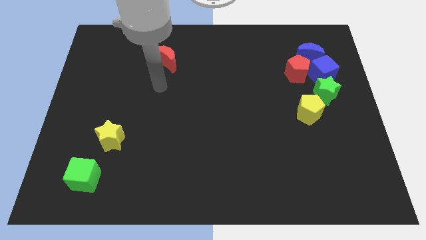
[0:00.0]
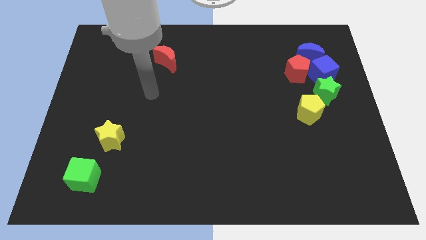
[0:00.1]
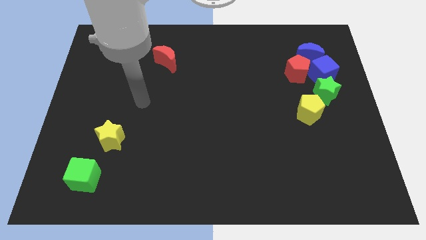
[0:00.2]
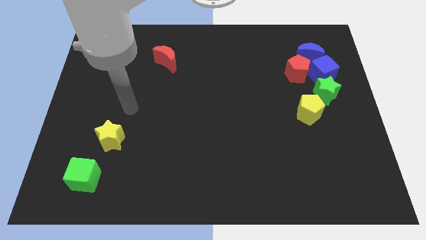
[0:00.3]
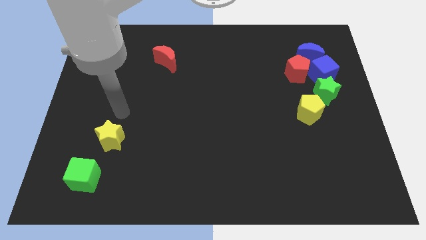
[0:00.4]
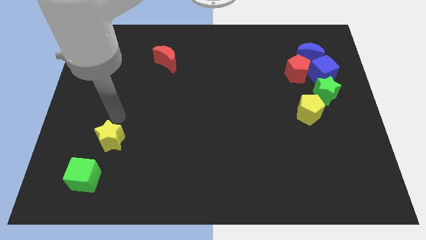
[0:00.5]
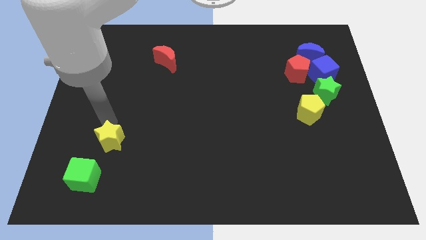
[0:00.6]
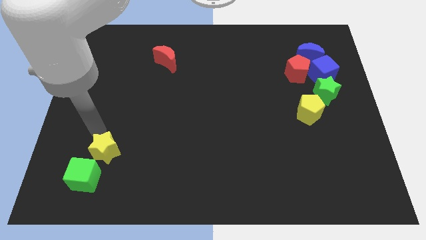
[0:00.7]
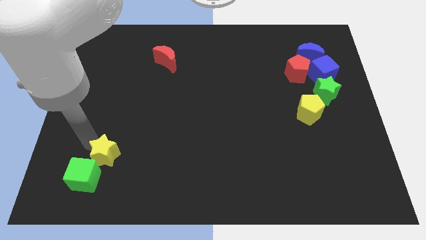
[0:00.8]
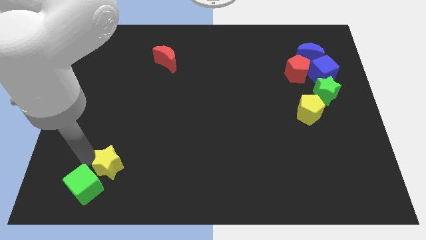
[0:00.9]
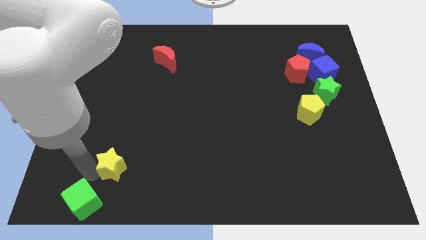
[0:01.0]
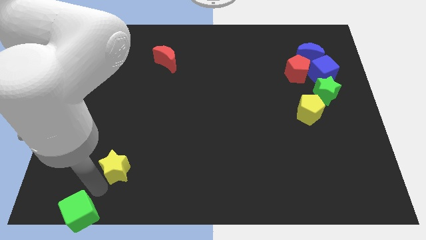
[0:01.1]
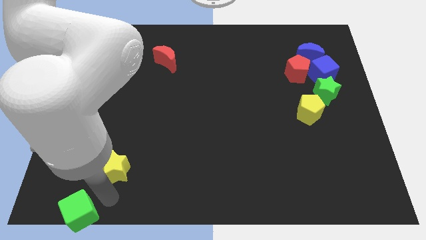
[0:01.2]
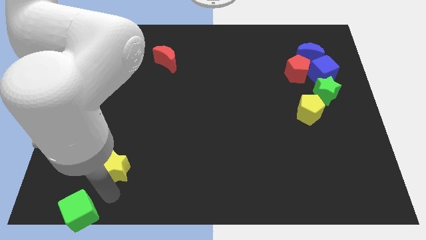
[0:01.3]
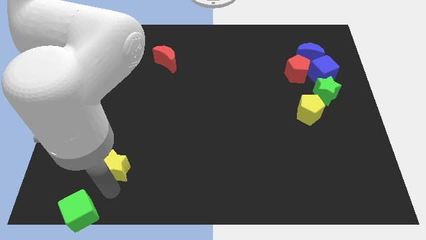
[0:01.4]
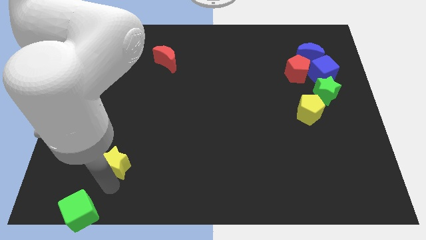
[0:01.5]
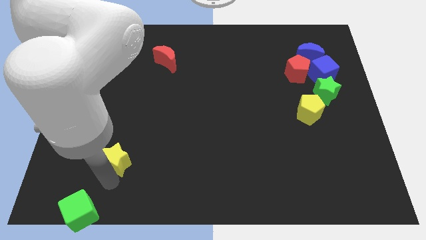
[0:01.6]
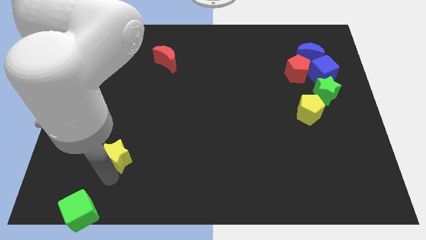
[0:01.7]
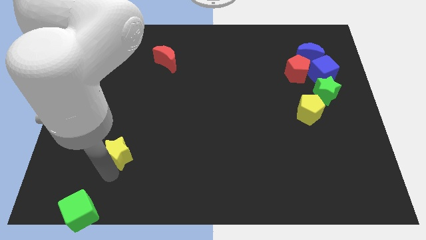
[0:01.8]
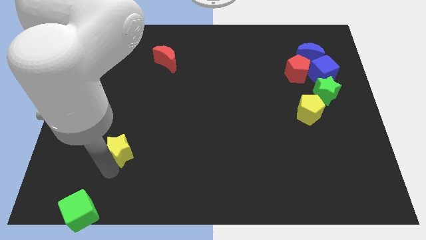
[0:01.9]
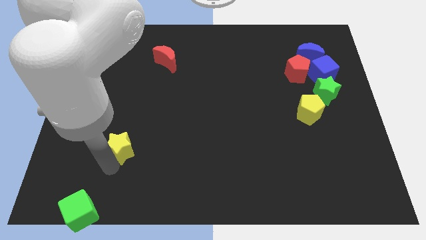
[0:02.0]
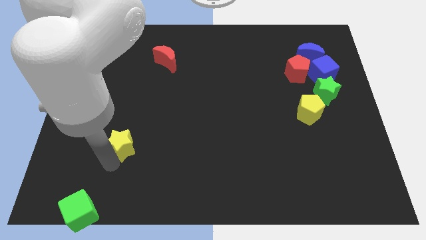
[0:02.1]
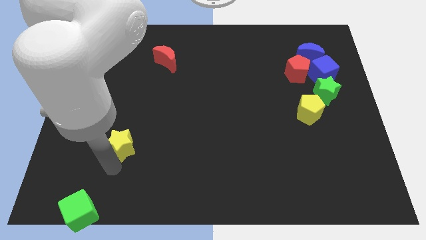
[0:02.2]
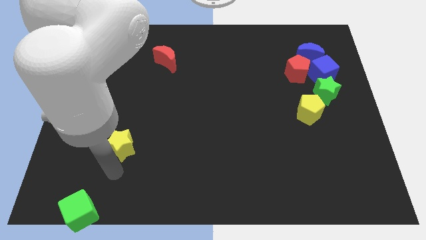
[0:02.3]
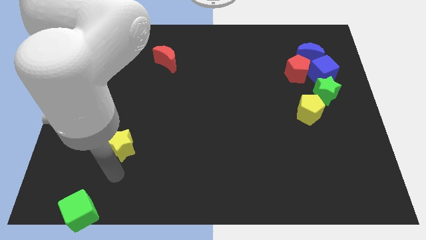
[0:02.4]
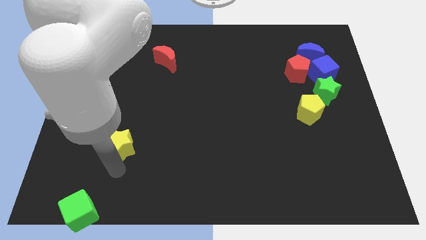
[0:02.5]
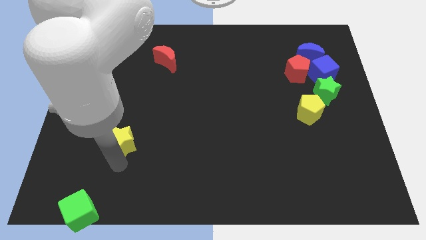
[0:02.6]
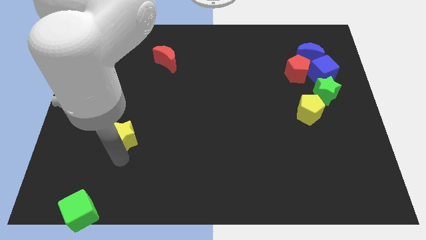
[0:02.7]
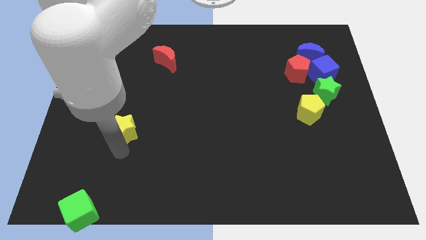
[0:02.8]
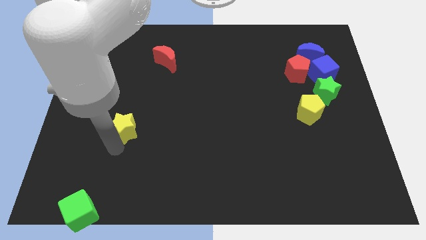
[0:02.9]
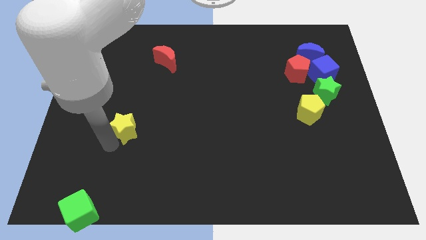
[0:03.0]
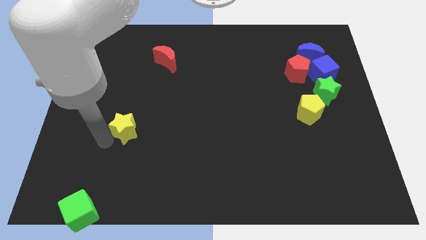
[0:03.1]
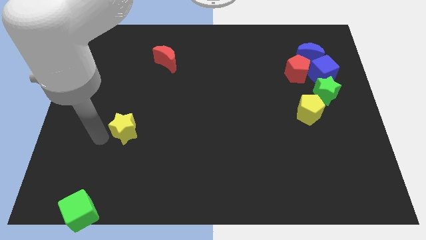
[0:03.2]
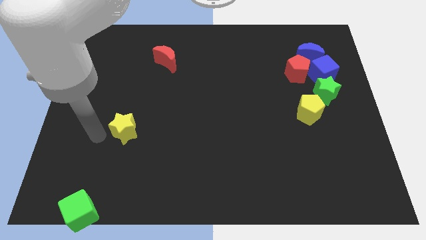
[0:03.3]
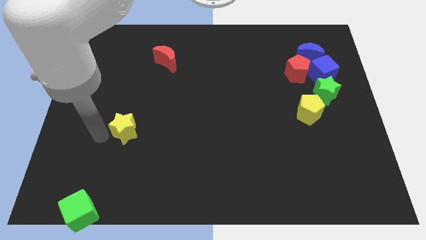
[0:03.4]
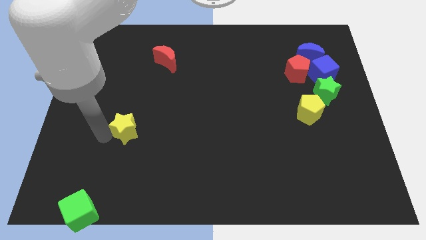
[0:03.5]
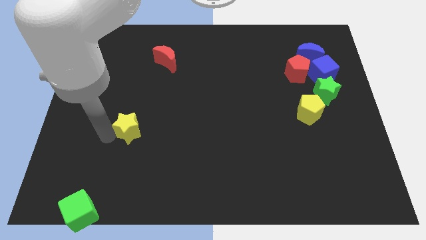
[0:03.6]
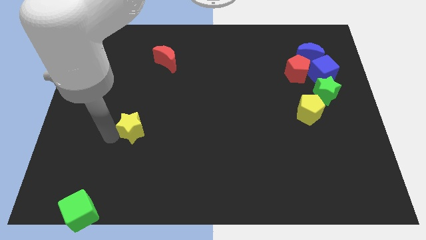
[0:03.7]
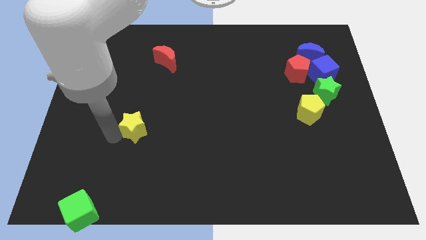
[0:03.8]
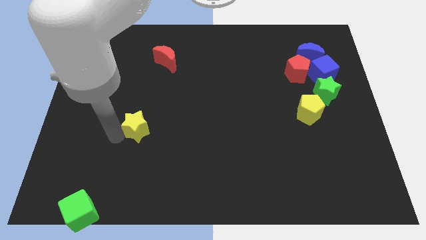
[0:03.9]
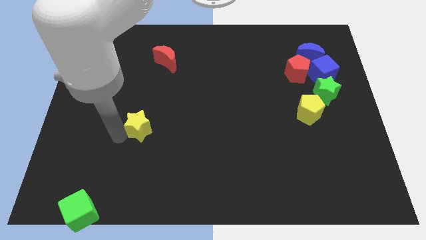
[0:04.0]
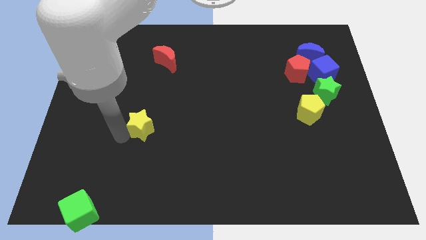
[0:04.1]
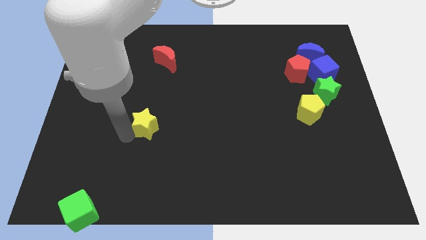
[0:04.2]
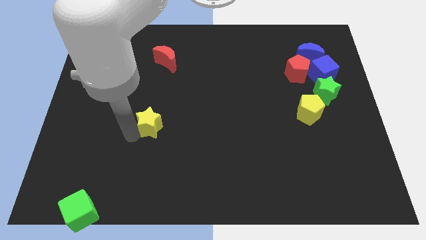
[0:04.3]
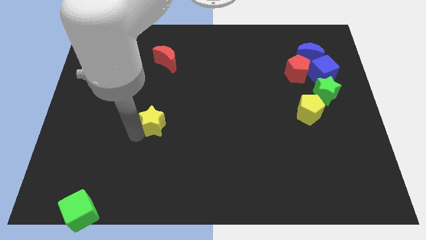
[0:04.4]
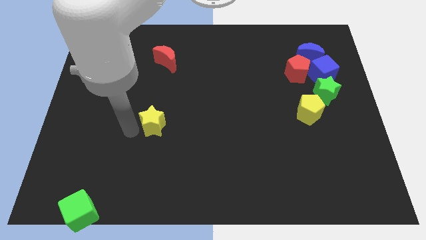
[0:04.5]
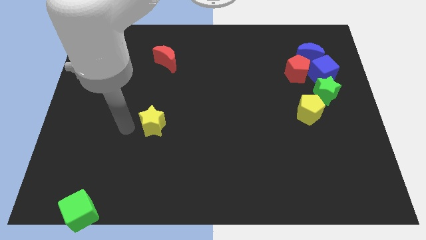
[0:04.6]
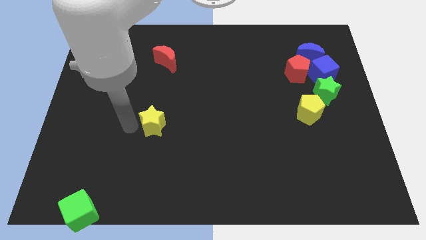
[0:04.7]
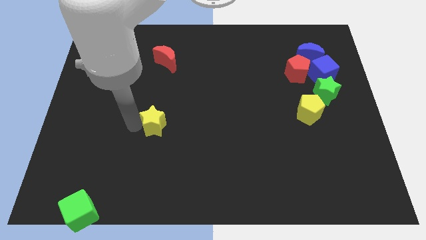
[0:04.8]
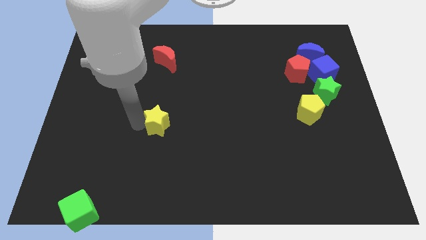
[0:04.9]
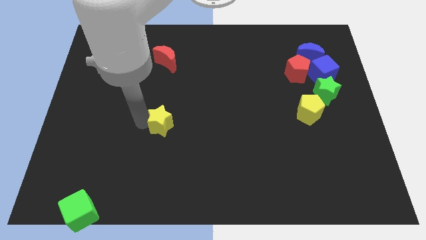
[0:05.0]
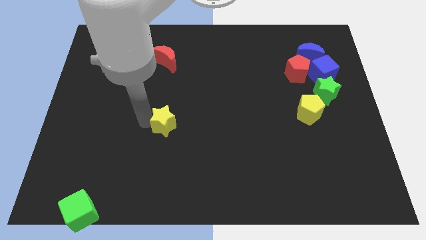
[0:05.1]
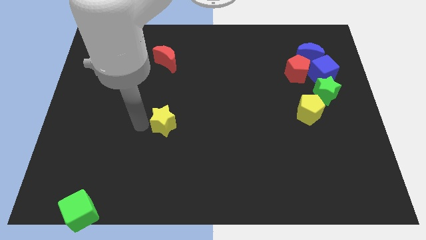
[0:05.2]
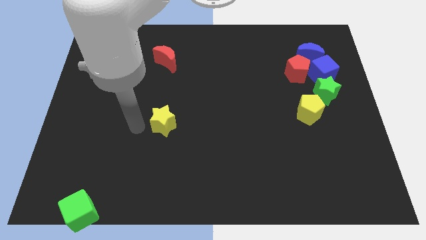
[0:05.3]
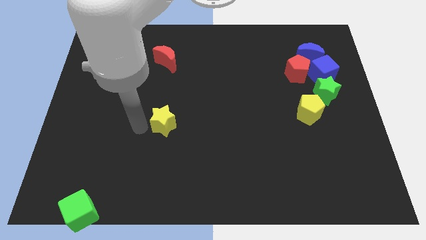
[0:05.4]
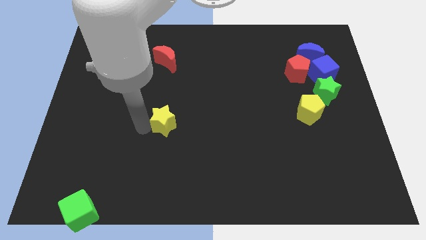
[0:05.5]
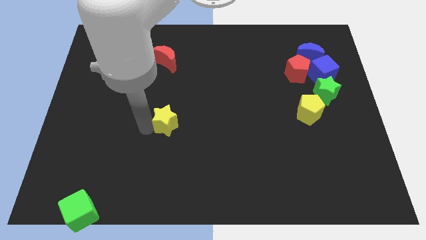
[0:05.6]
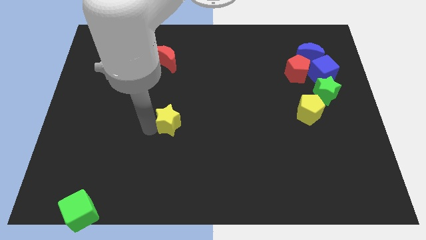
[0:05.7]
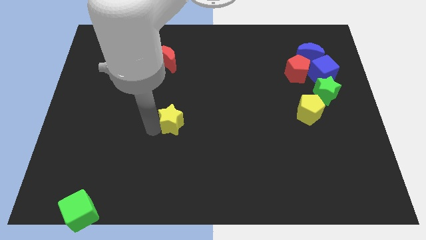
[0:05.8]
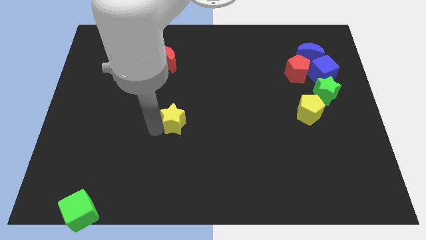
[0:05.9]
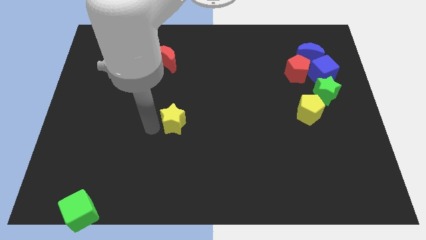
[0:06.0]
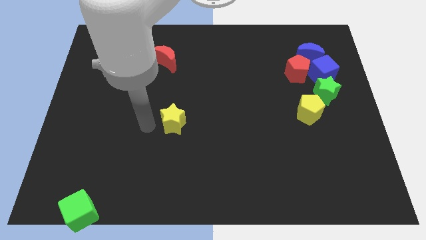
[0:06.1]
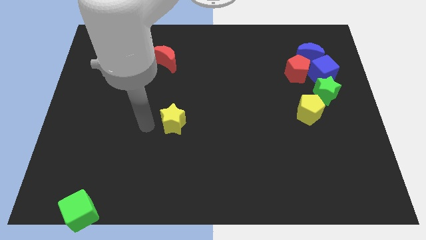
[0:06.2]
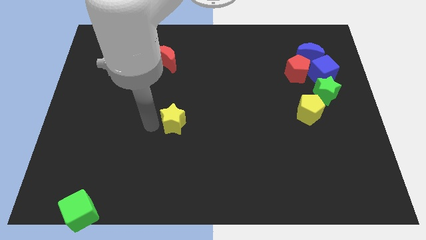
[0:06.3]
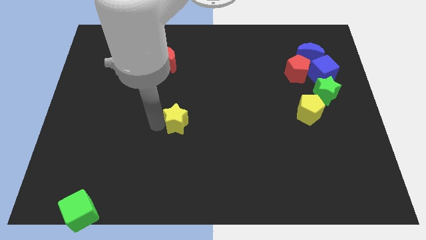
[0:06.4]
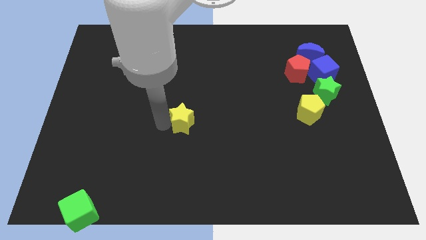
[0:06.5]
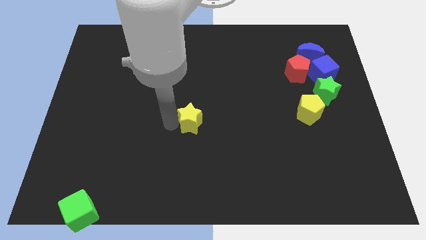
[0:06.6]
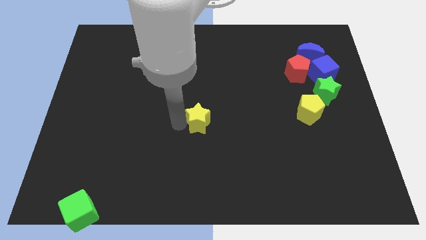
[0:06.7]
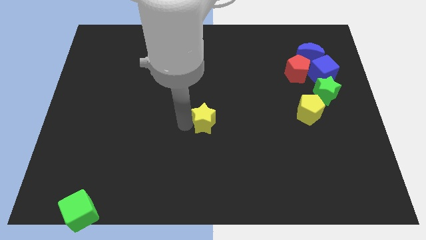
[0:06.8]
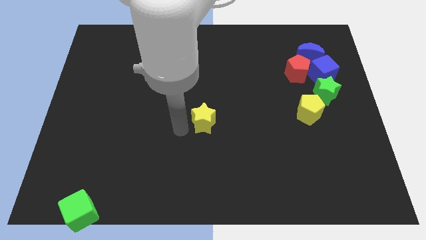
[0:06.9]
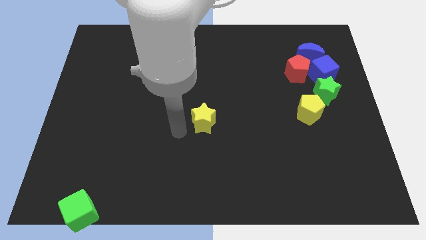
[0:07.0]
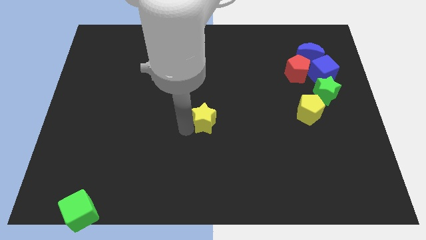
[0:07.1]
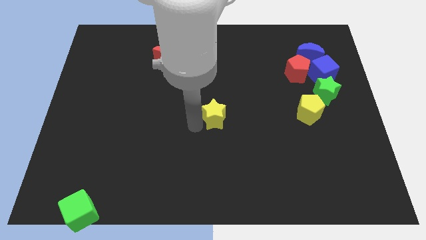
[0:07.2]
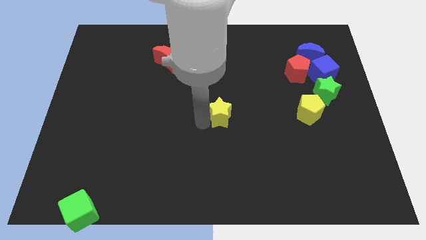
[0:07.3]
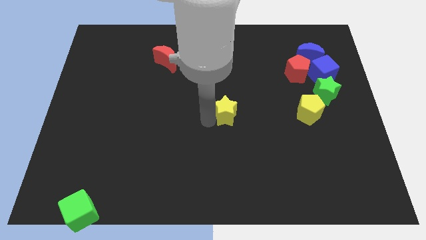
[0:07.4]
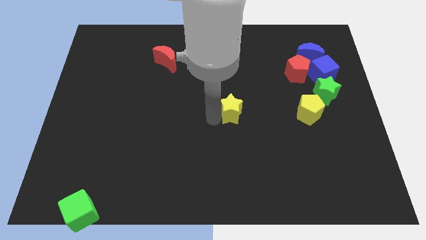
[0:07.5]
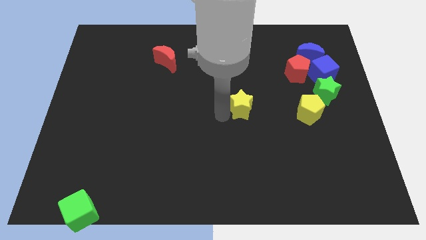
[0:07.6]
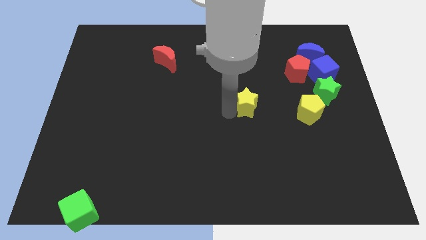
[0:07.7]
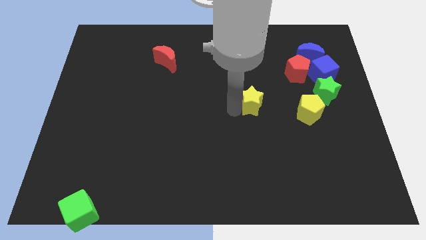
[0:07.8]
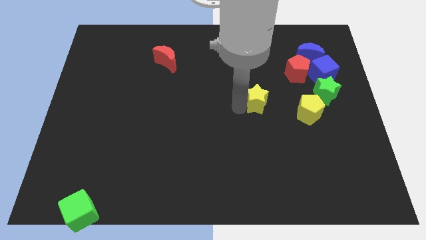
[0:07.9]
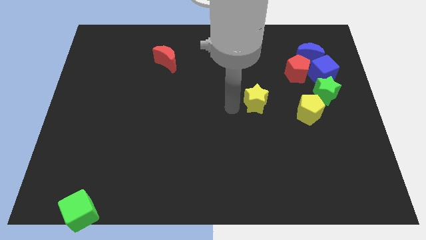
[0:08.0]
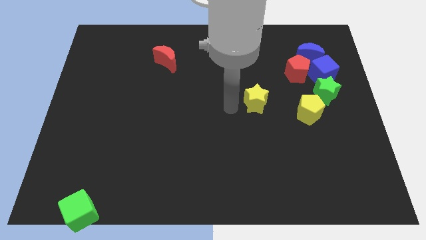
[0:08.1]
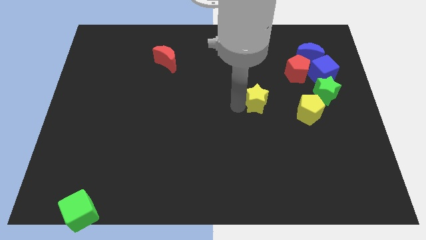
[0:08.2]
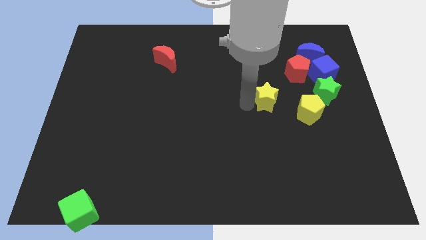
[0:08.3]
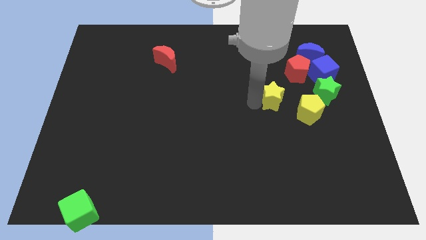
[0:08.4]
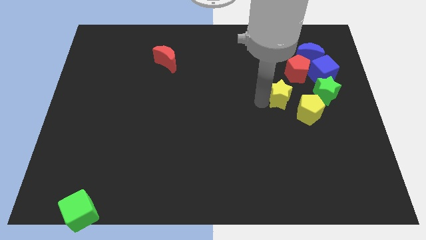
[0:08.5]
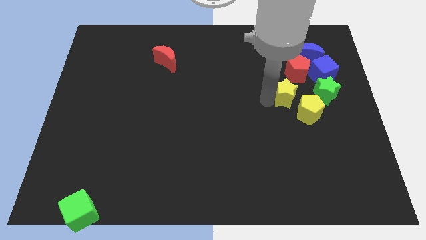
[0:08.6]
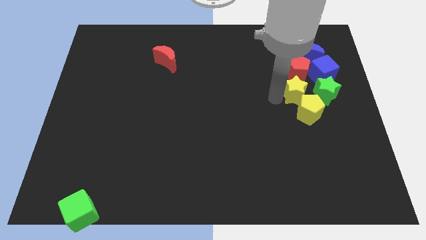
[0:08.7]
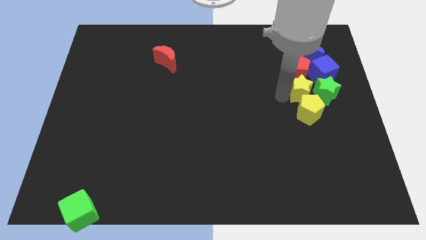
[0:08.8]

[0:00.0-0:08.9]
put the yellow star to the green star
